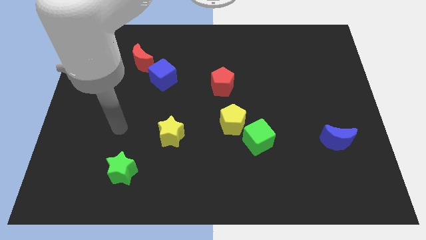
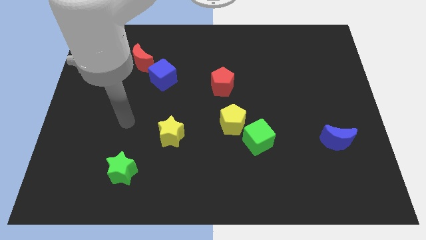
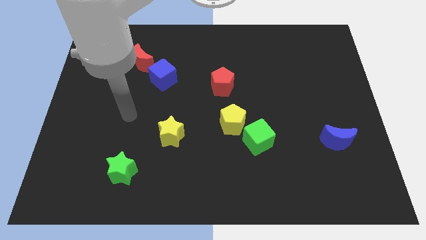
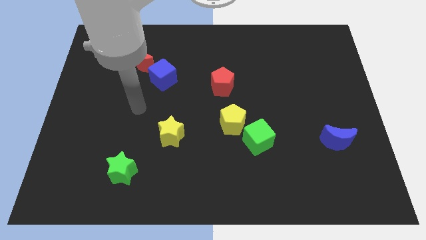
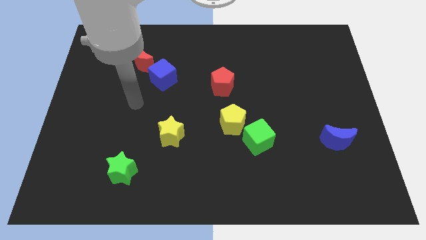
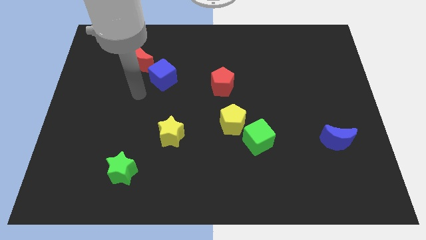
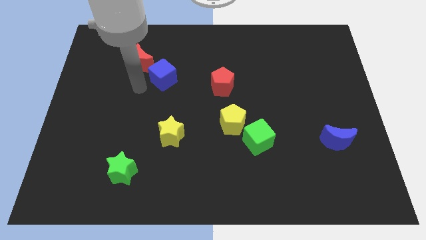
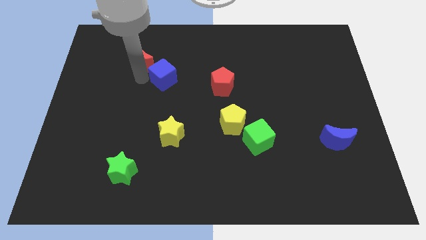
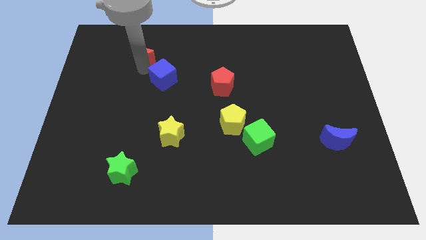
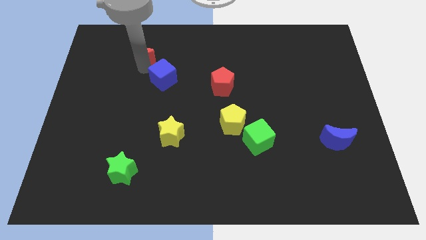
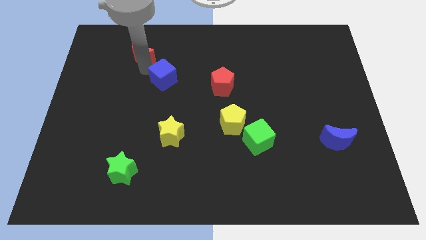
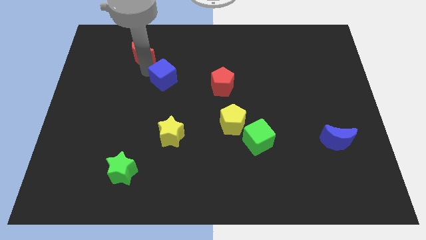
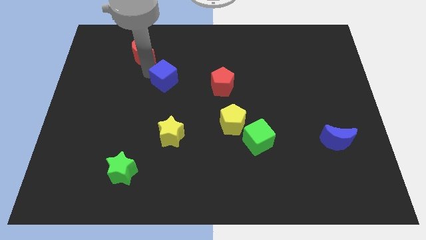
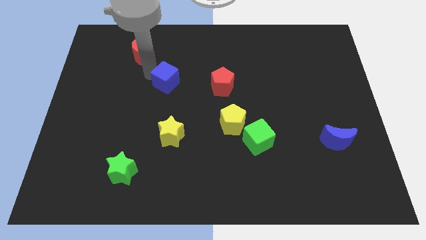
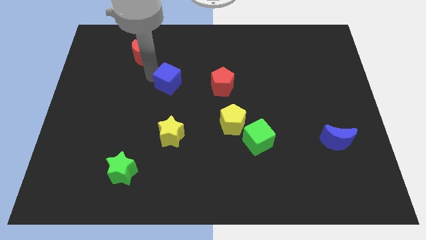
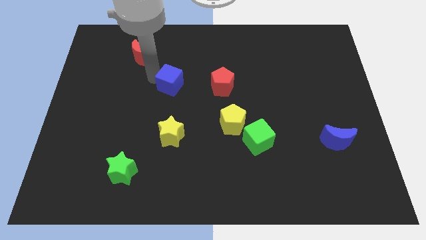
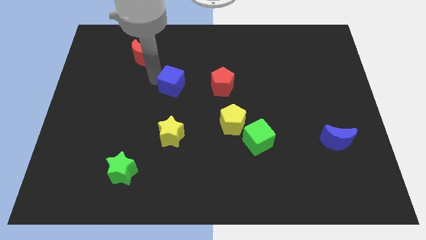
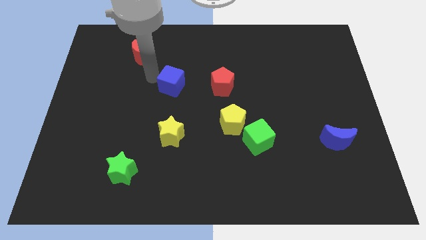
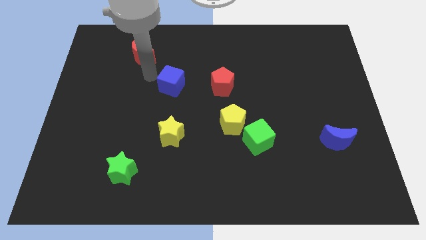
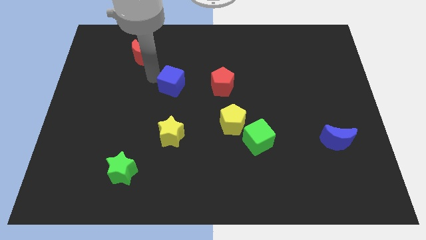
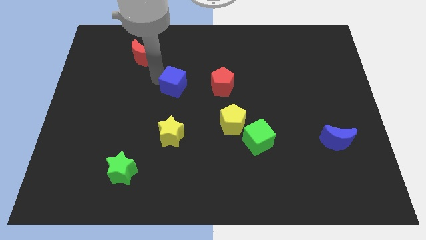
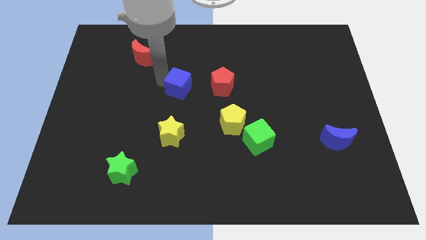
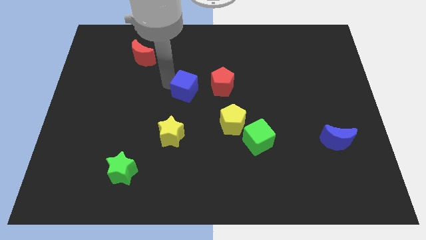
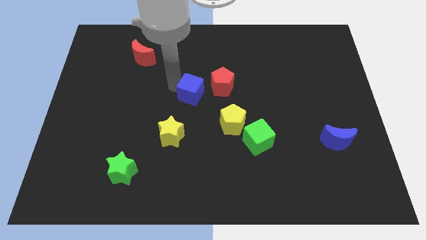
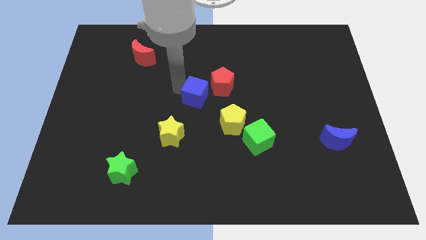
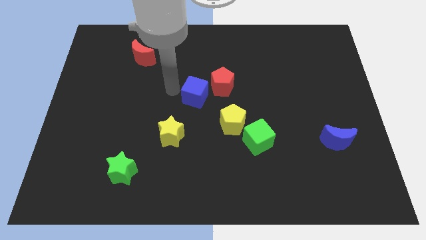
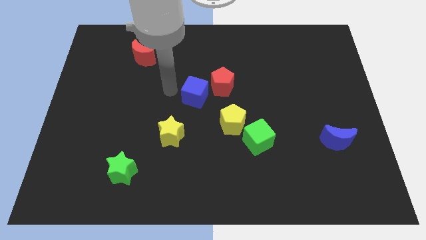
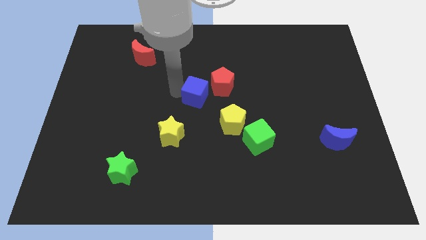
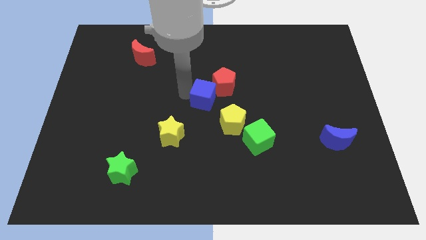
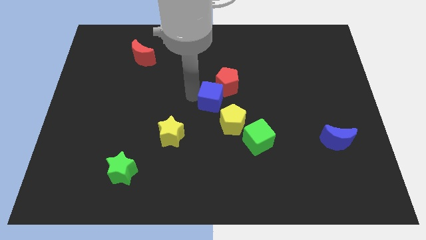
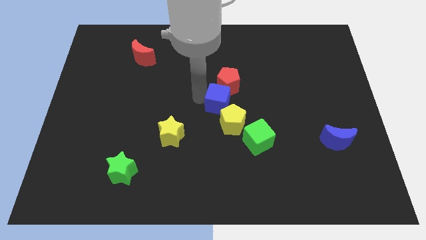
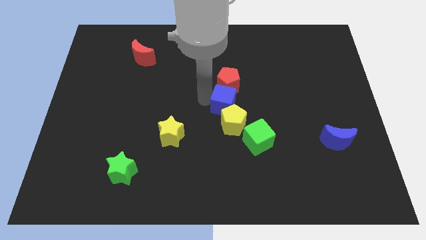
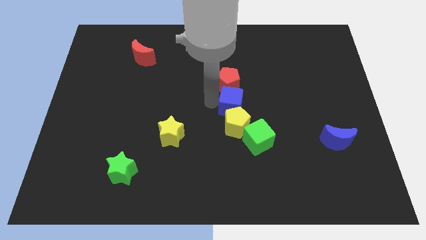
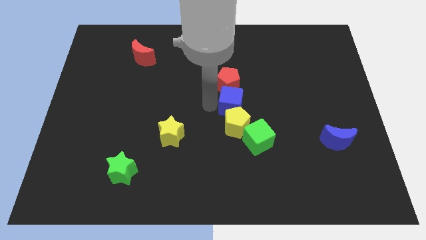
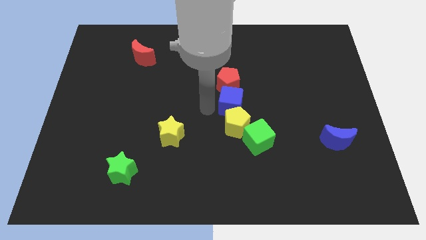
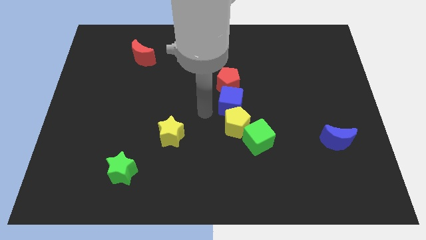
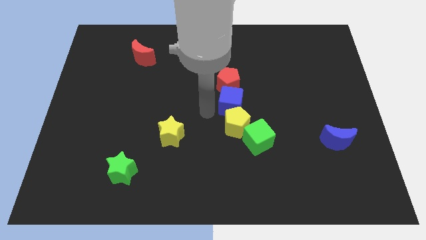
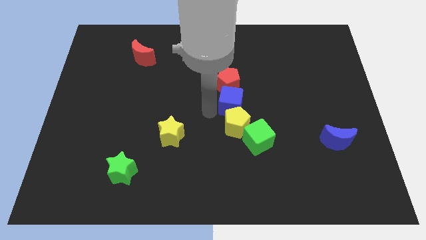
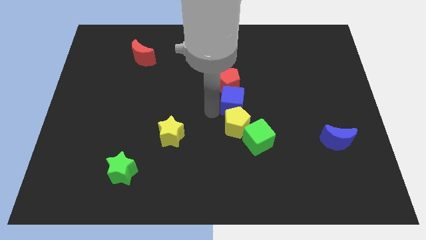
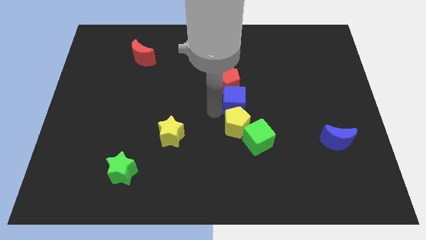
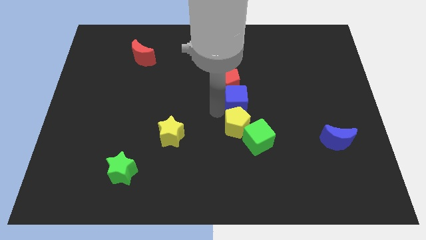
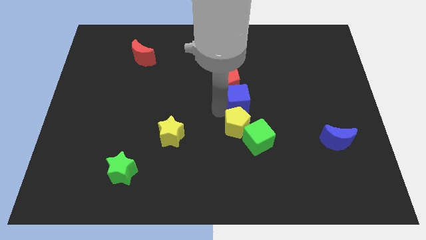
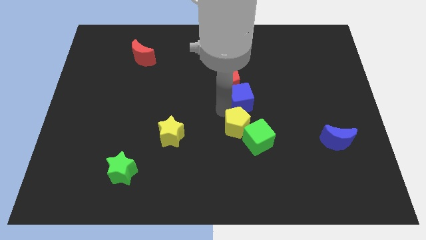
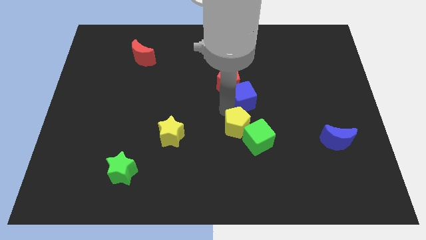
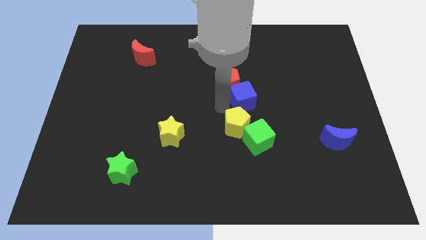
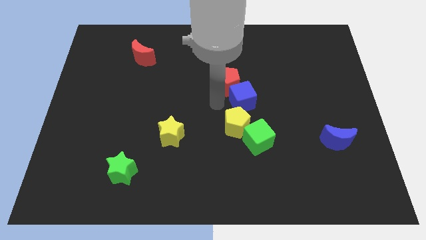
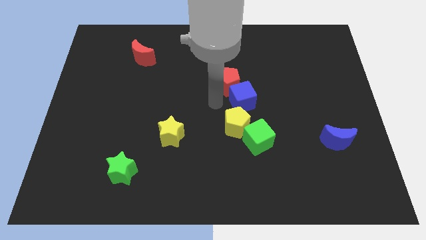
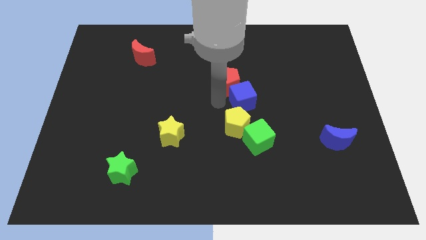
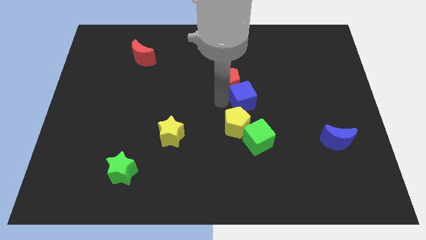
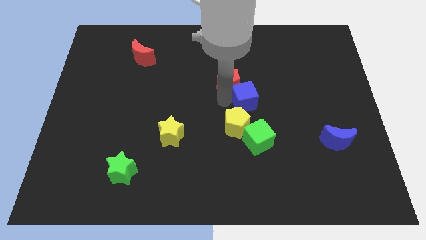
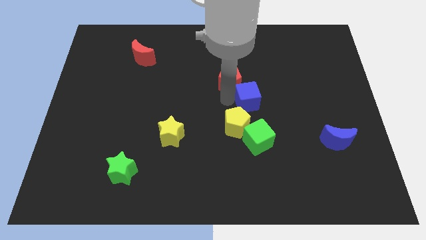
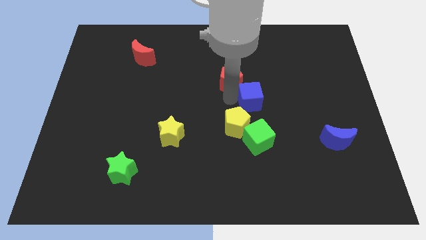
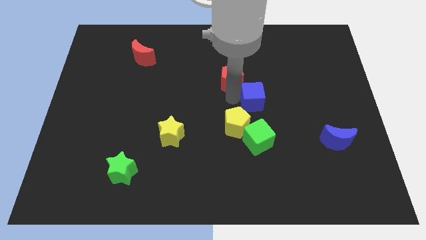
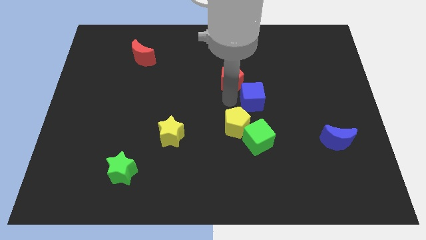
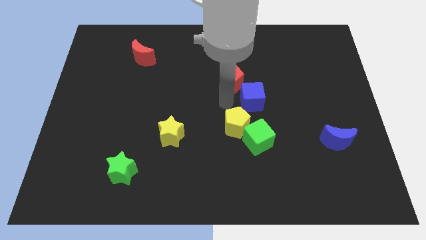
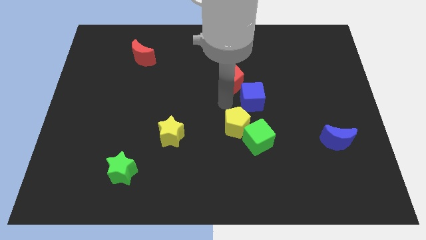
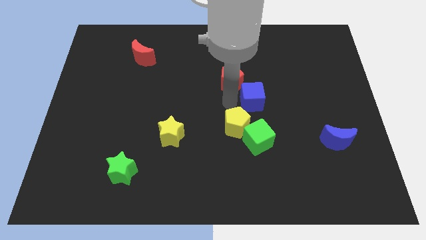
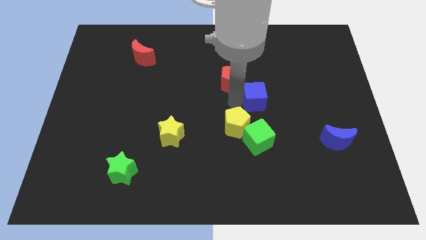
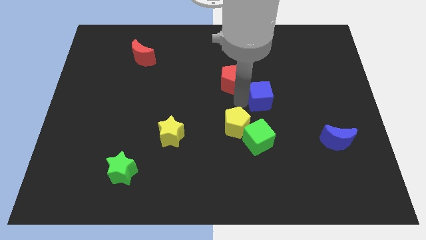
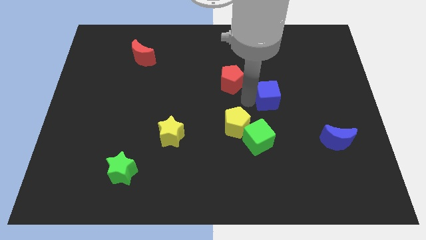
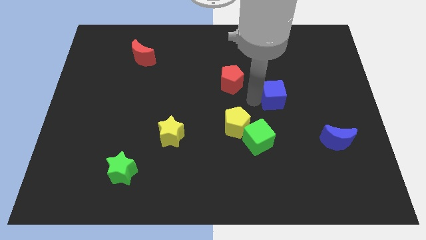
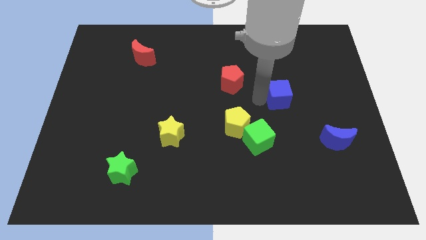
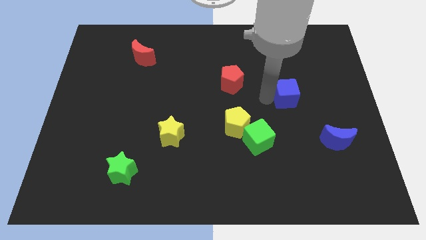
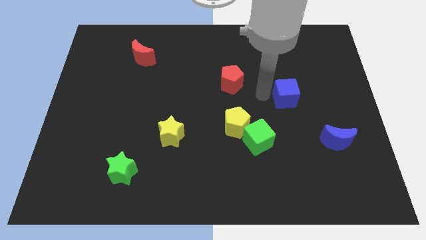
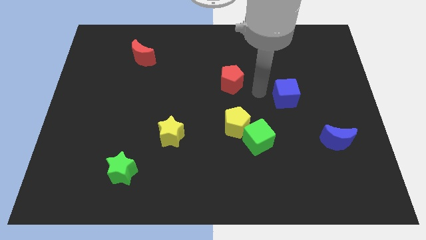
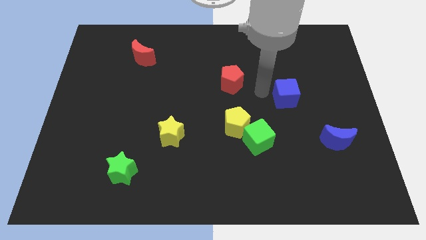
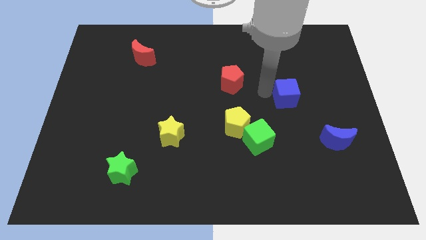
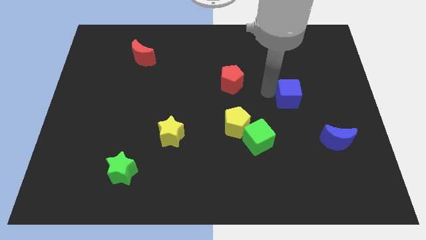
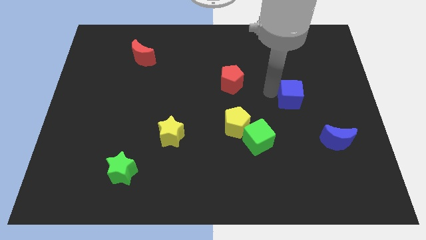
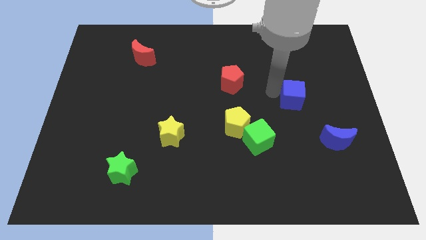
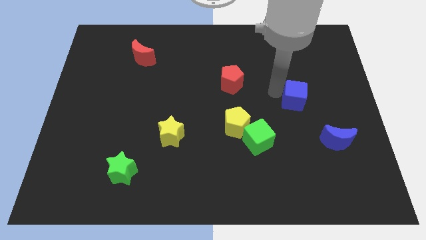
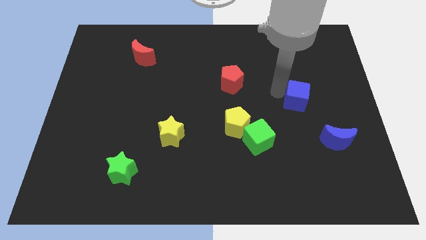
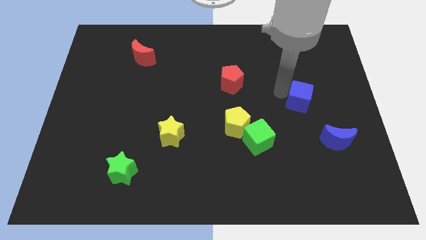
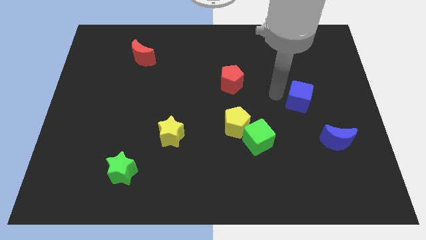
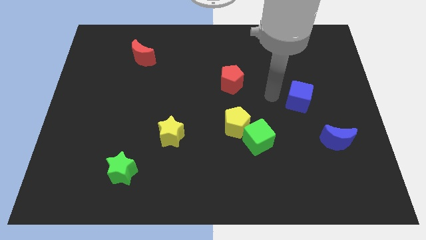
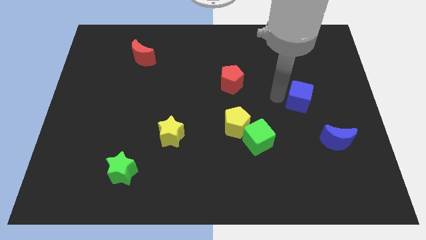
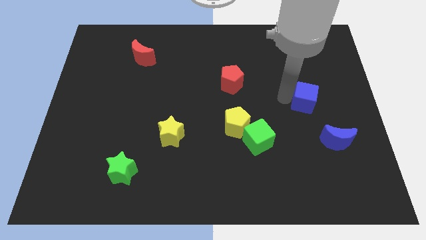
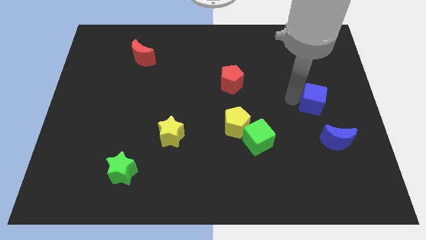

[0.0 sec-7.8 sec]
slide the blue cube above the blue moon

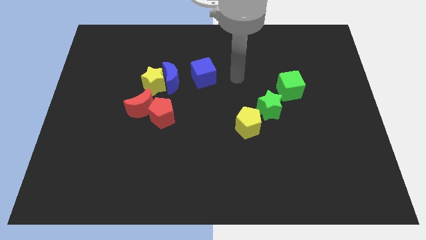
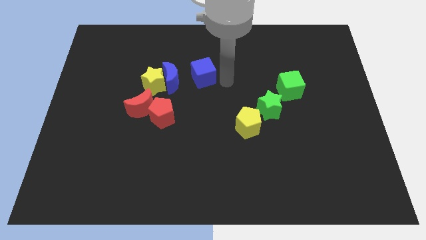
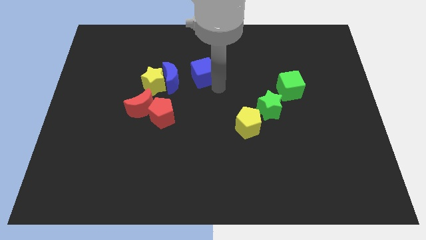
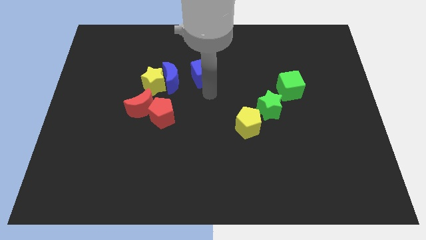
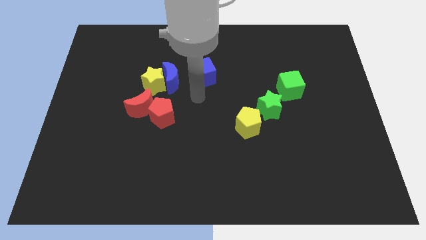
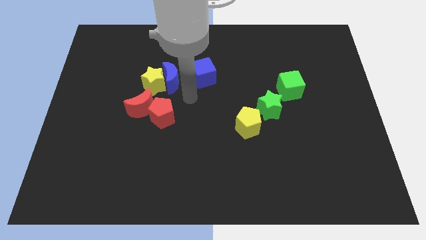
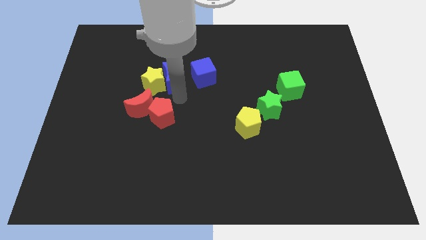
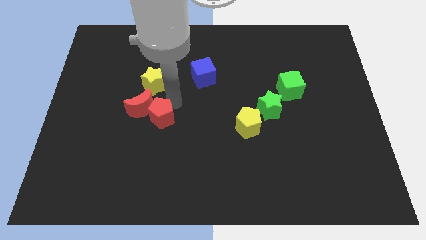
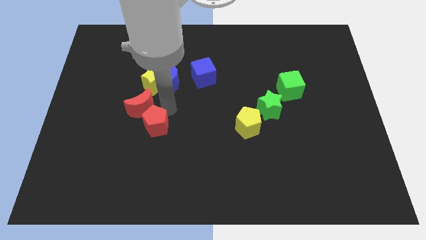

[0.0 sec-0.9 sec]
slide the red pentagon to the bottom of the red moon
